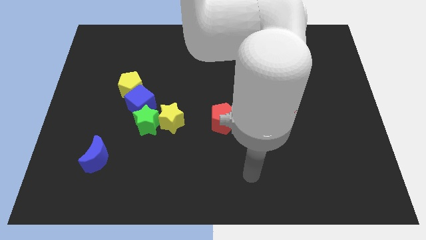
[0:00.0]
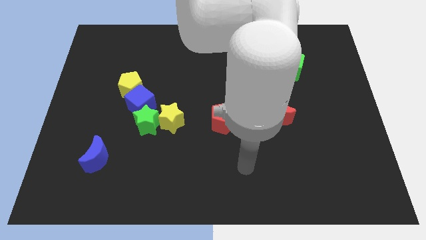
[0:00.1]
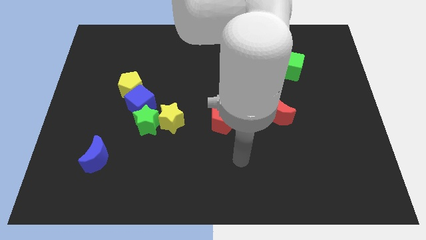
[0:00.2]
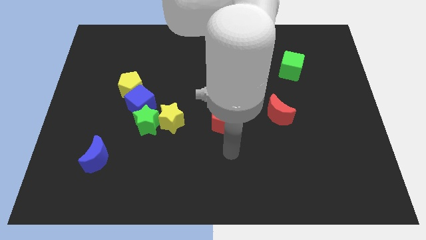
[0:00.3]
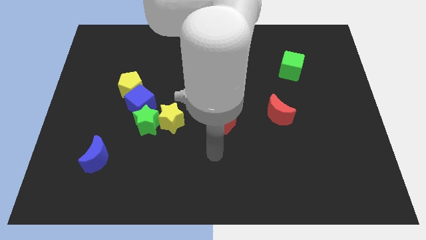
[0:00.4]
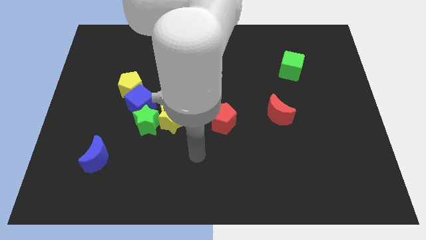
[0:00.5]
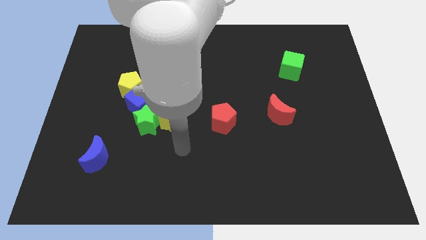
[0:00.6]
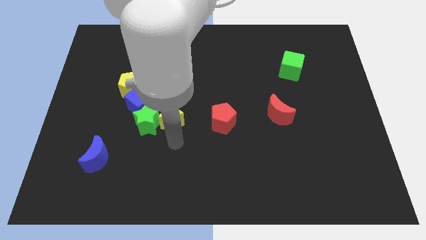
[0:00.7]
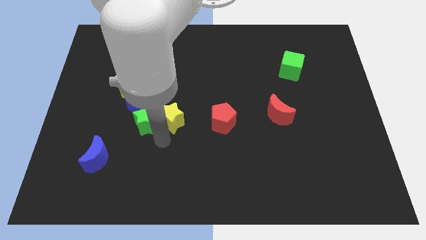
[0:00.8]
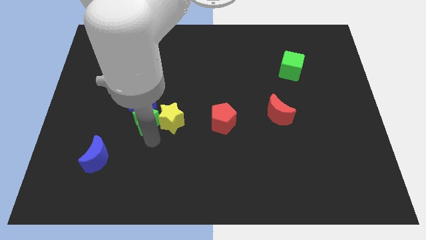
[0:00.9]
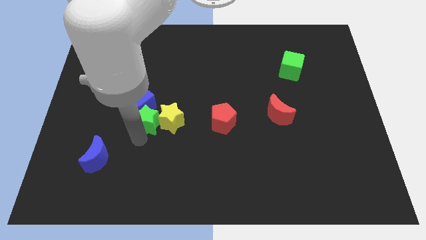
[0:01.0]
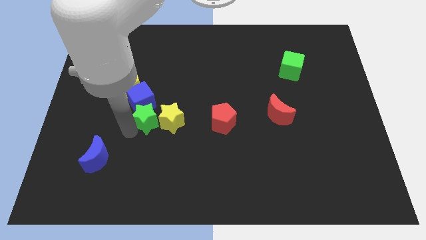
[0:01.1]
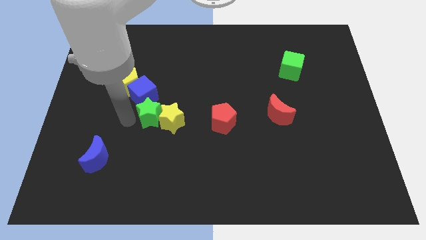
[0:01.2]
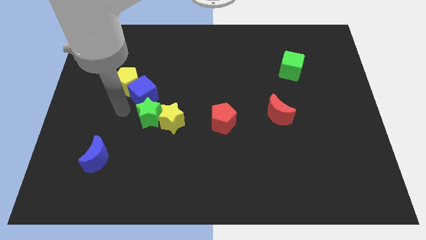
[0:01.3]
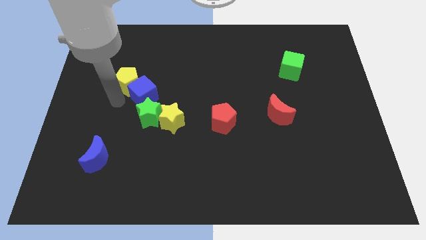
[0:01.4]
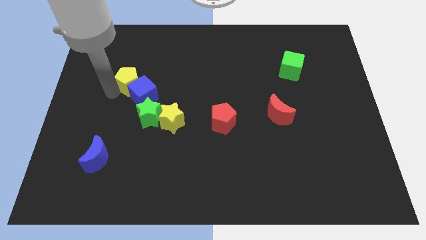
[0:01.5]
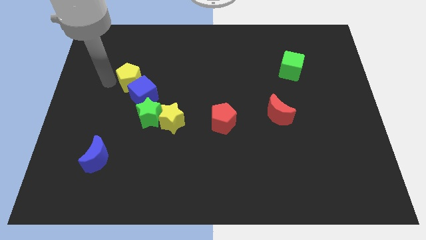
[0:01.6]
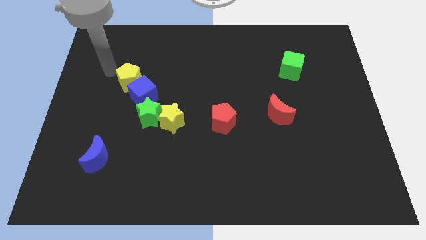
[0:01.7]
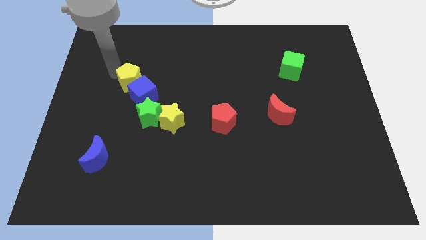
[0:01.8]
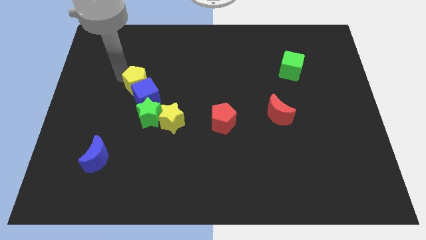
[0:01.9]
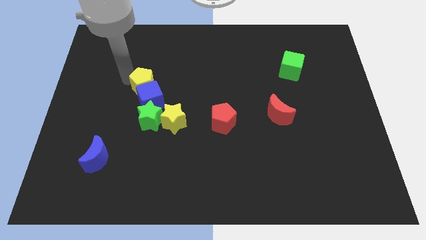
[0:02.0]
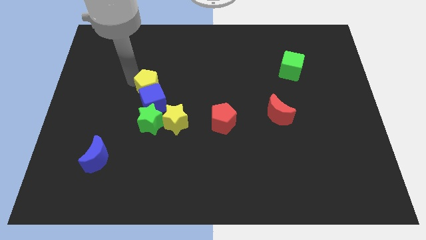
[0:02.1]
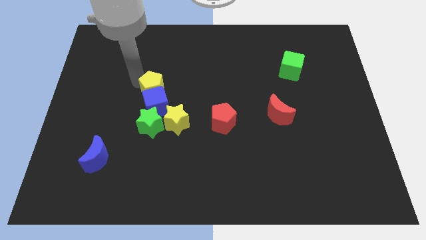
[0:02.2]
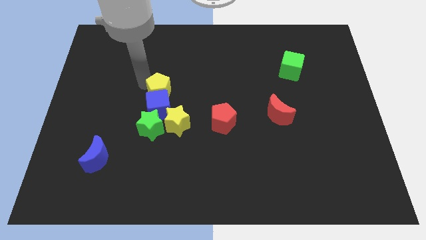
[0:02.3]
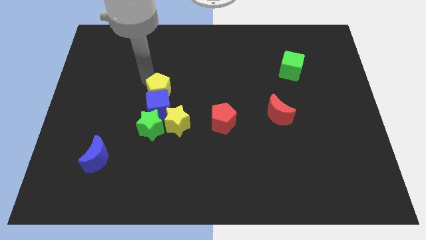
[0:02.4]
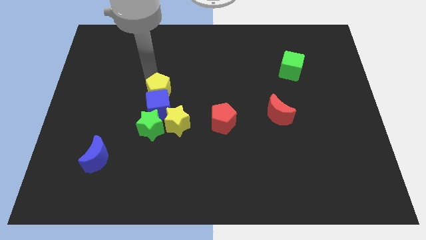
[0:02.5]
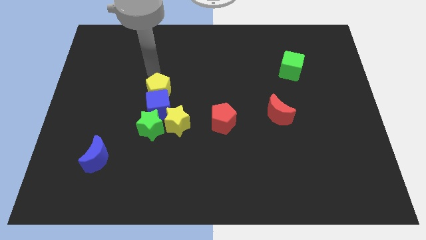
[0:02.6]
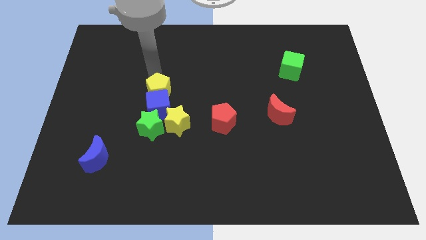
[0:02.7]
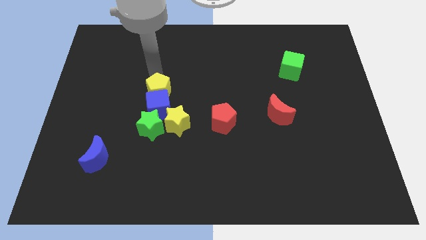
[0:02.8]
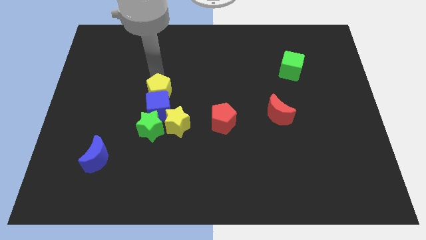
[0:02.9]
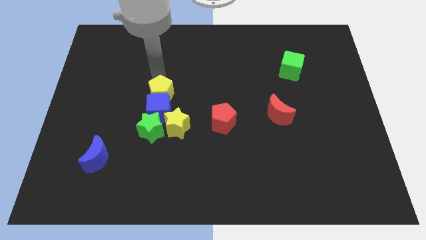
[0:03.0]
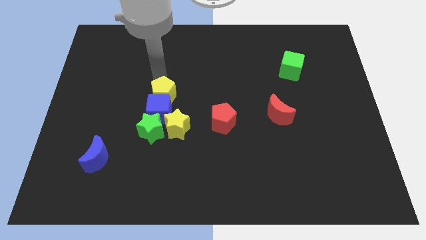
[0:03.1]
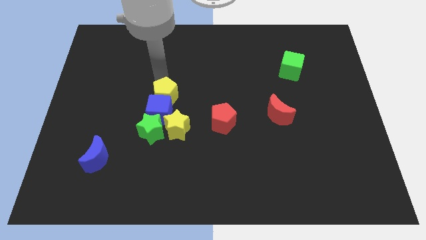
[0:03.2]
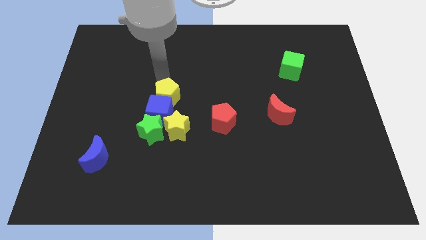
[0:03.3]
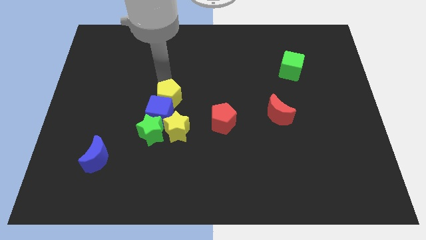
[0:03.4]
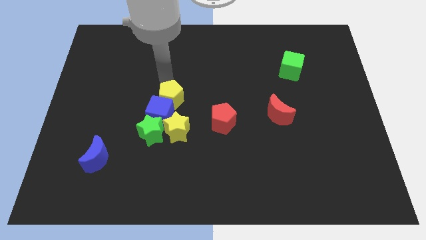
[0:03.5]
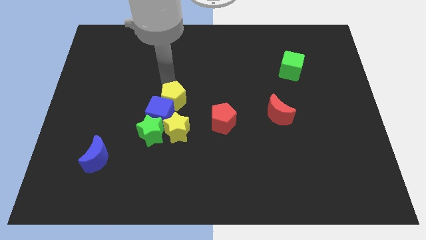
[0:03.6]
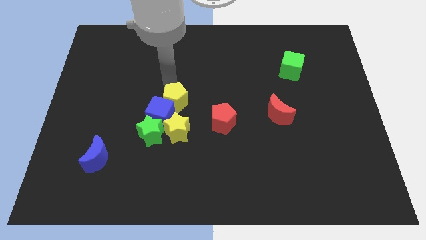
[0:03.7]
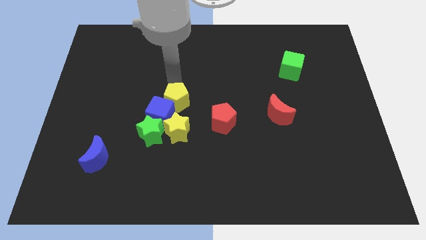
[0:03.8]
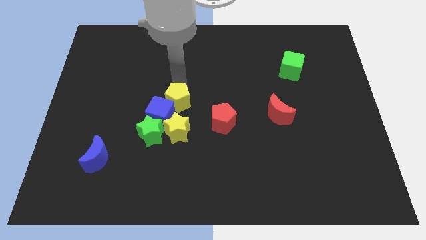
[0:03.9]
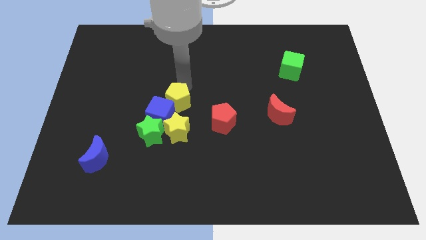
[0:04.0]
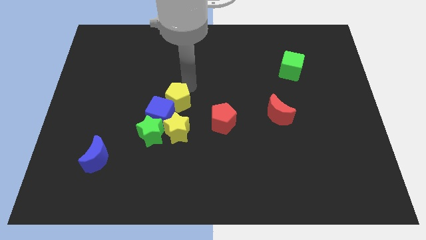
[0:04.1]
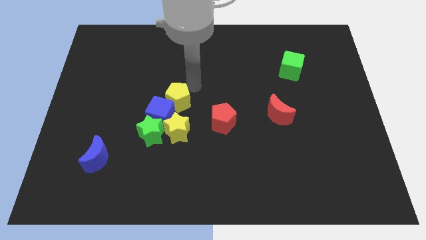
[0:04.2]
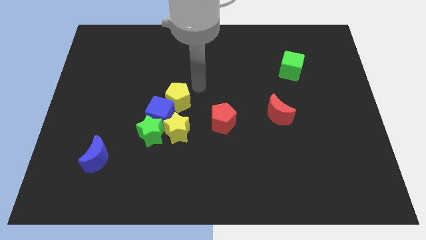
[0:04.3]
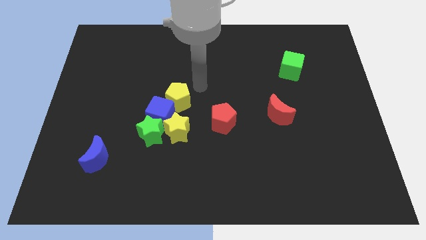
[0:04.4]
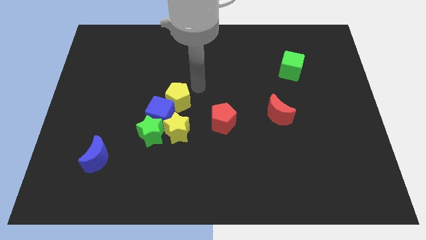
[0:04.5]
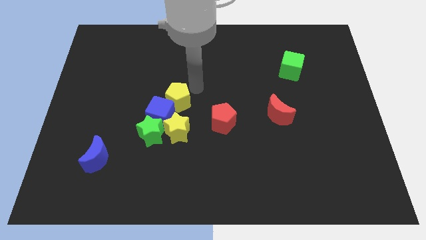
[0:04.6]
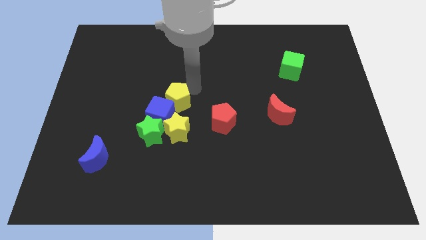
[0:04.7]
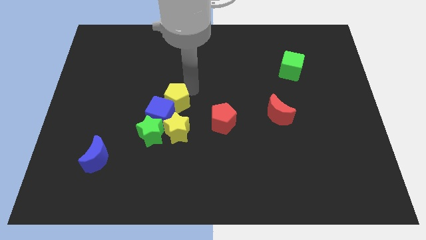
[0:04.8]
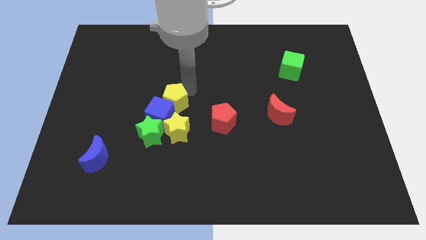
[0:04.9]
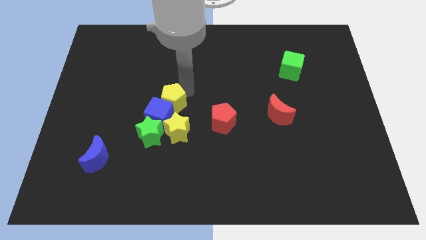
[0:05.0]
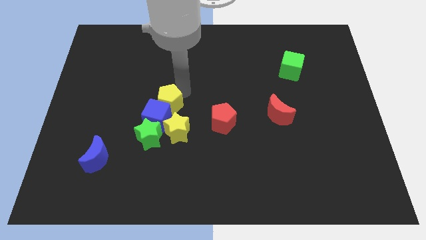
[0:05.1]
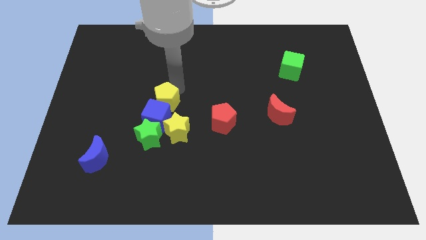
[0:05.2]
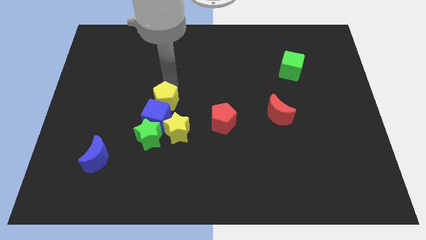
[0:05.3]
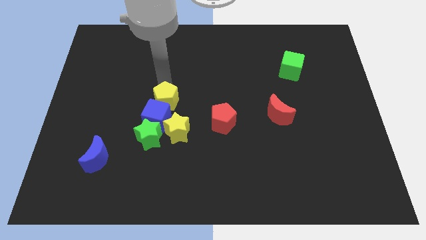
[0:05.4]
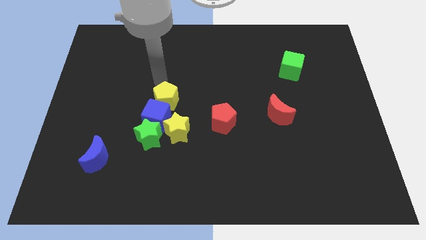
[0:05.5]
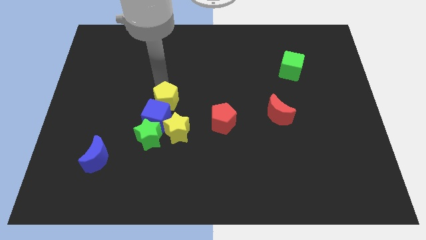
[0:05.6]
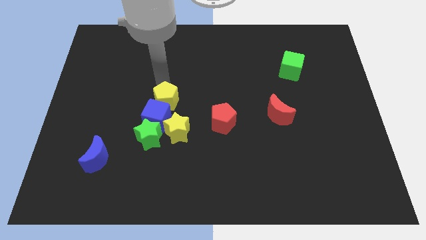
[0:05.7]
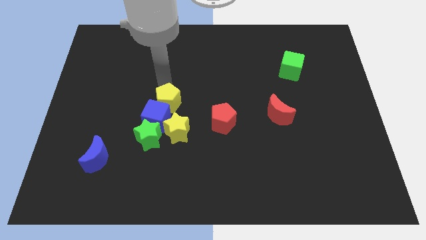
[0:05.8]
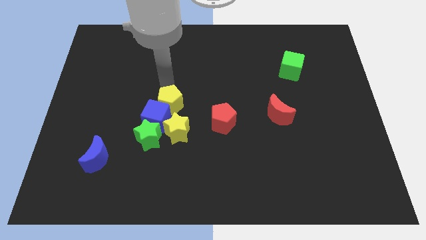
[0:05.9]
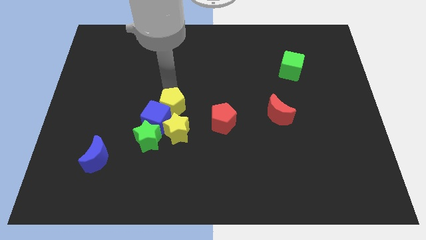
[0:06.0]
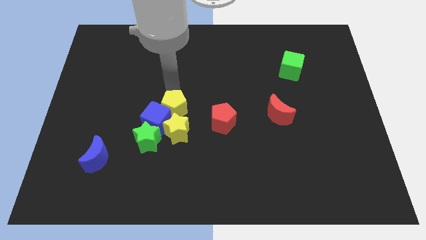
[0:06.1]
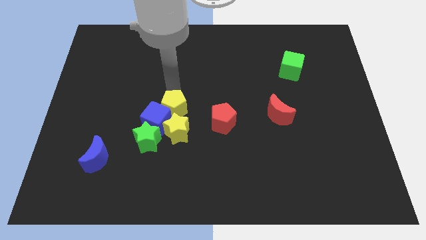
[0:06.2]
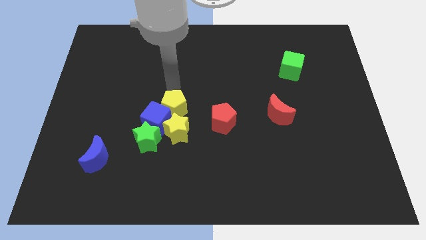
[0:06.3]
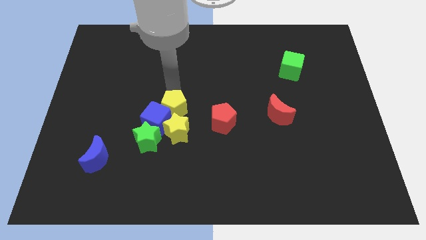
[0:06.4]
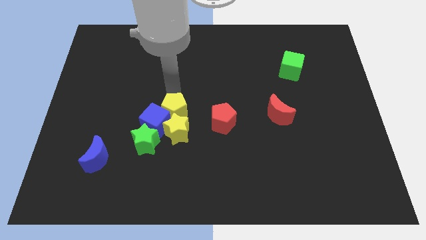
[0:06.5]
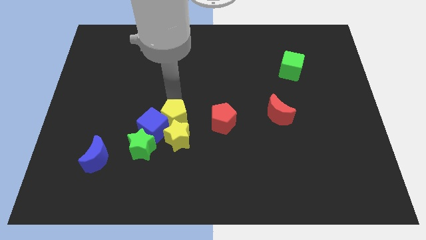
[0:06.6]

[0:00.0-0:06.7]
put the yellow pentagon towards the yellow star

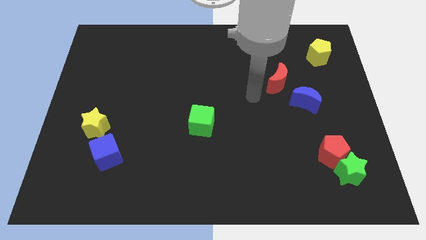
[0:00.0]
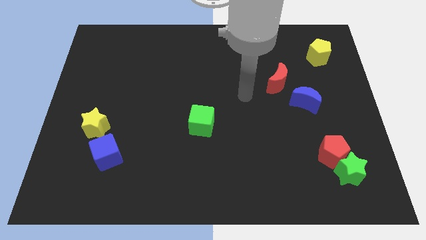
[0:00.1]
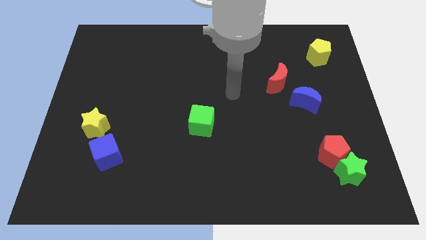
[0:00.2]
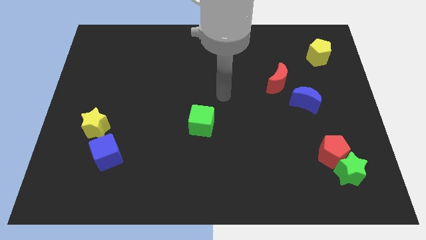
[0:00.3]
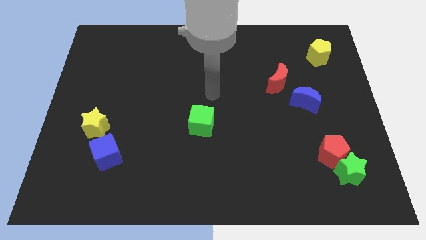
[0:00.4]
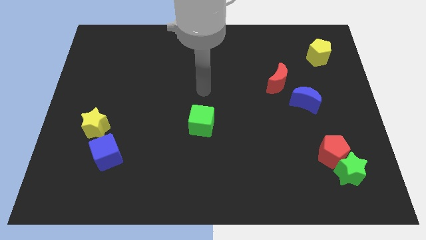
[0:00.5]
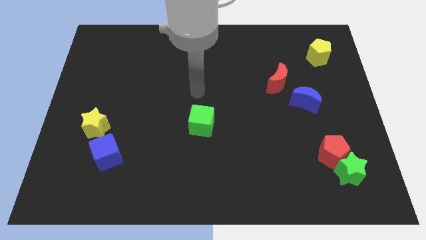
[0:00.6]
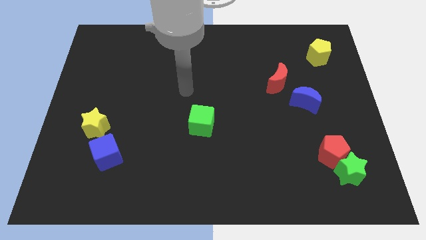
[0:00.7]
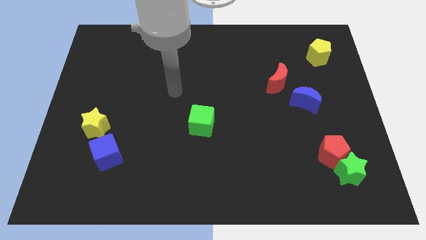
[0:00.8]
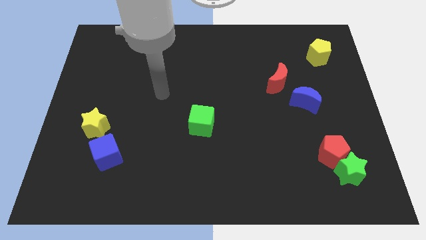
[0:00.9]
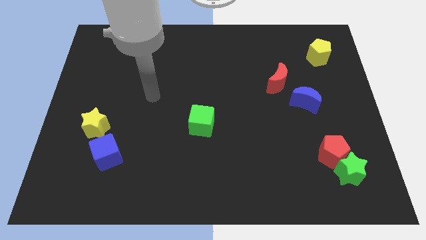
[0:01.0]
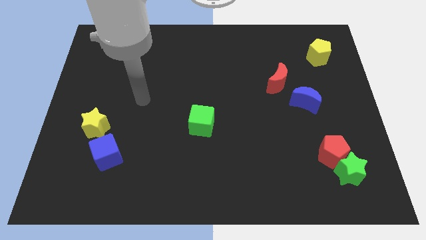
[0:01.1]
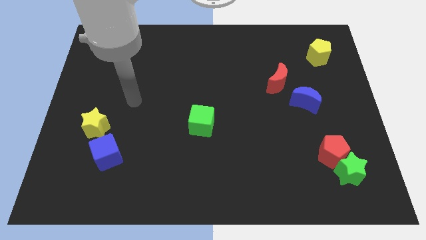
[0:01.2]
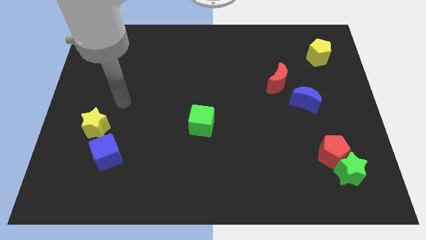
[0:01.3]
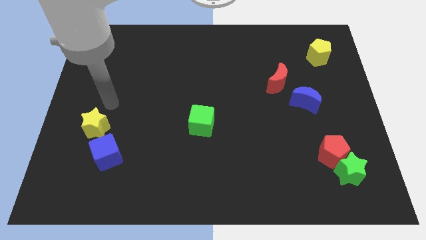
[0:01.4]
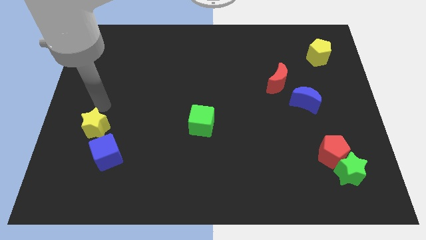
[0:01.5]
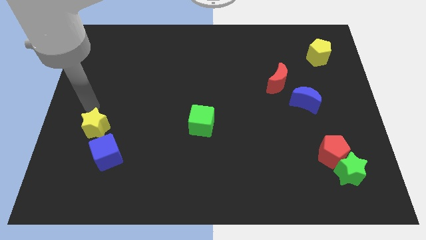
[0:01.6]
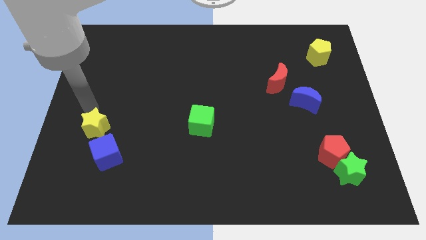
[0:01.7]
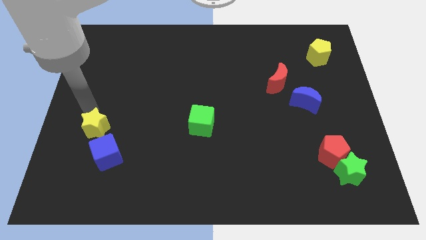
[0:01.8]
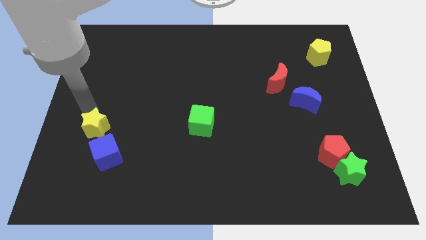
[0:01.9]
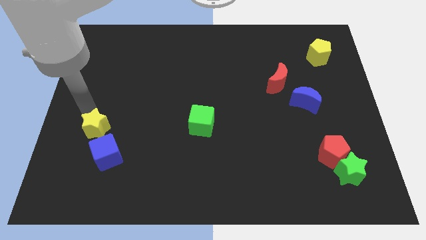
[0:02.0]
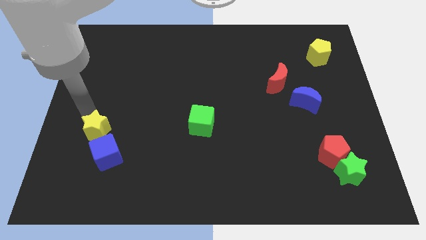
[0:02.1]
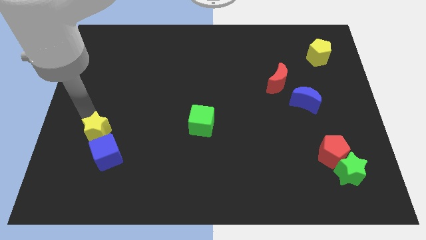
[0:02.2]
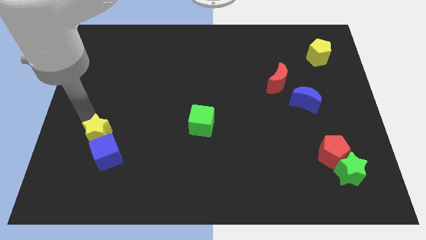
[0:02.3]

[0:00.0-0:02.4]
slide the yellow star towards the blue cube
